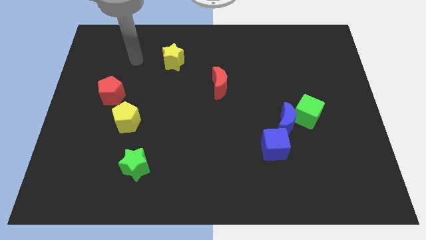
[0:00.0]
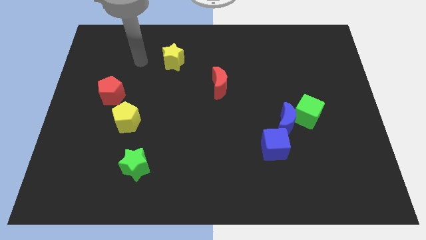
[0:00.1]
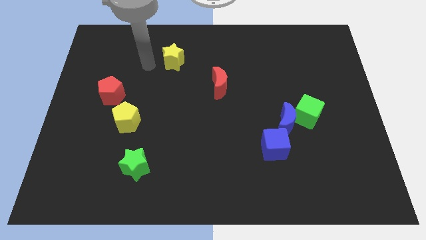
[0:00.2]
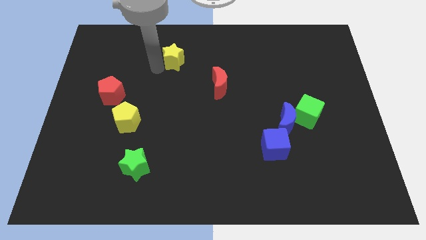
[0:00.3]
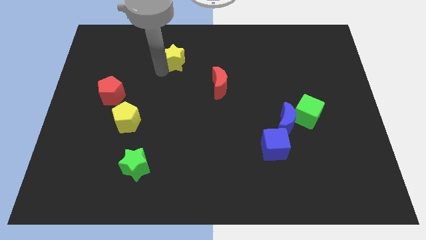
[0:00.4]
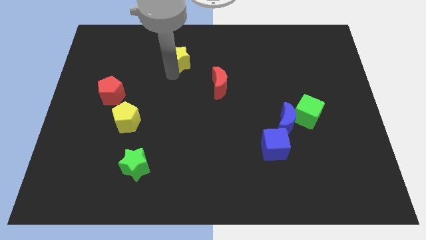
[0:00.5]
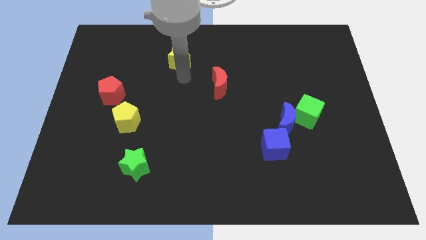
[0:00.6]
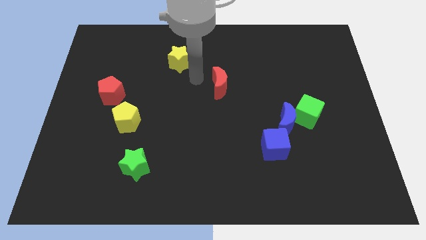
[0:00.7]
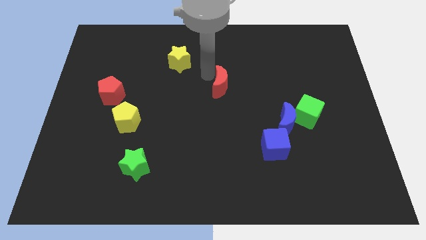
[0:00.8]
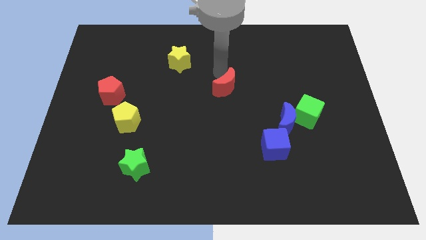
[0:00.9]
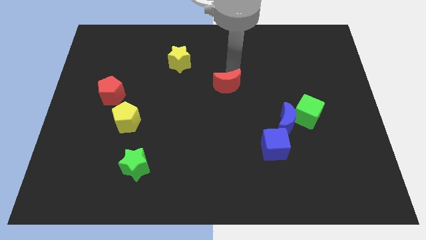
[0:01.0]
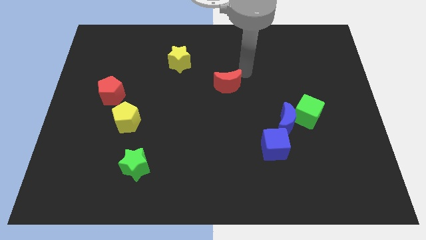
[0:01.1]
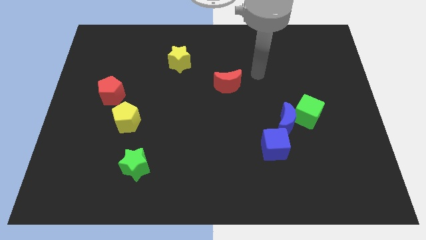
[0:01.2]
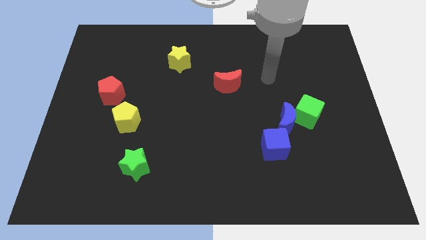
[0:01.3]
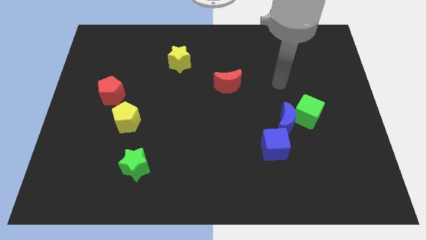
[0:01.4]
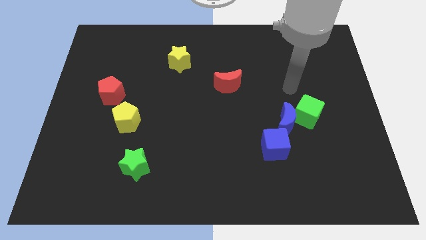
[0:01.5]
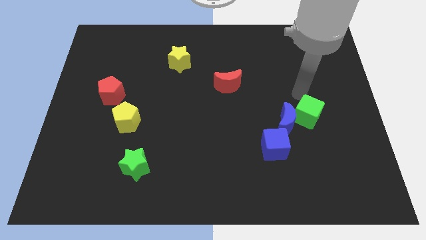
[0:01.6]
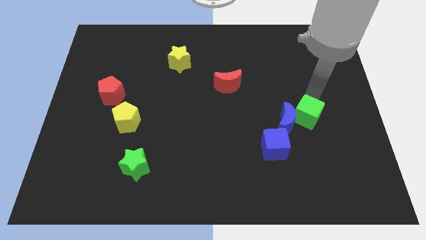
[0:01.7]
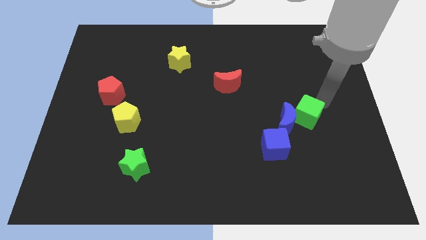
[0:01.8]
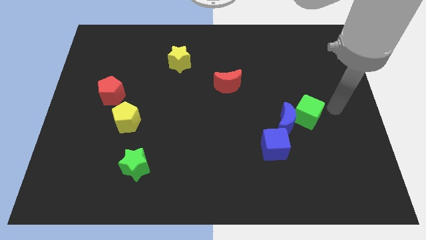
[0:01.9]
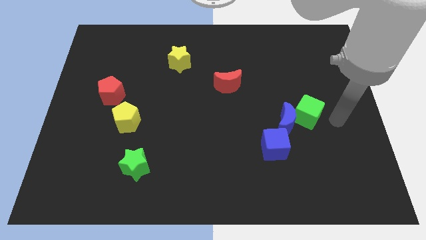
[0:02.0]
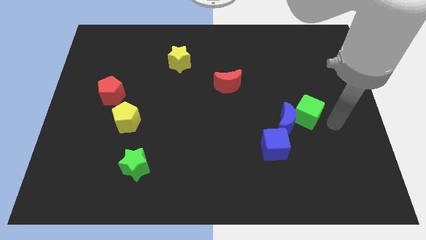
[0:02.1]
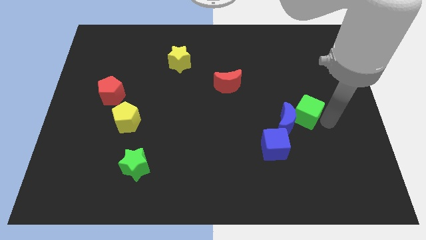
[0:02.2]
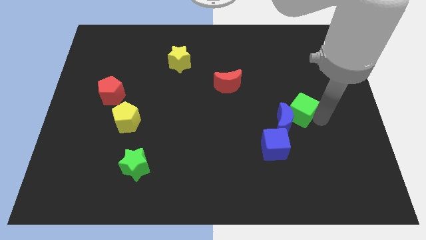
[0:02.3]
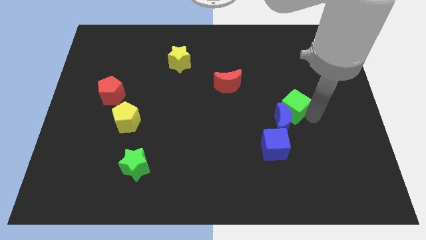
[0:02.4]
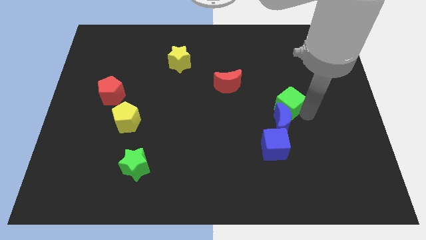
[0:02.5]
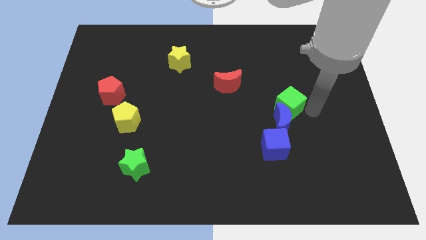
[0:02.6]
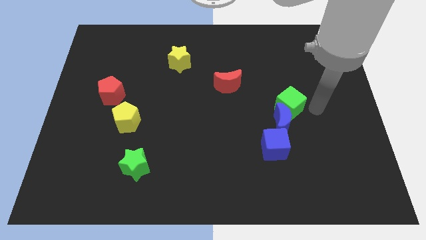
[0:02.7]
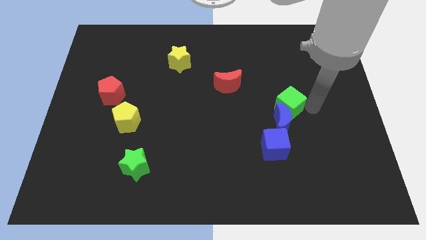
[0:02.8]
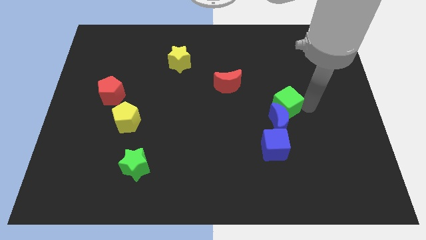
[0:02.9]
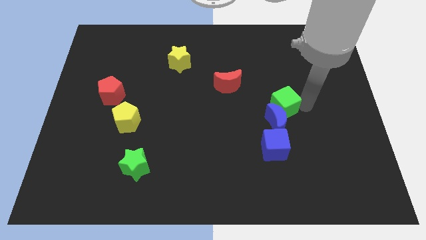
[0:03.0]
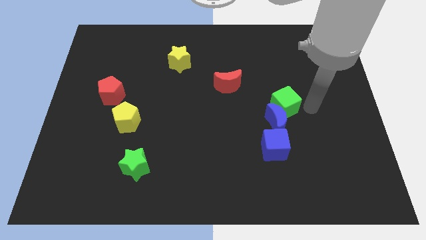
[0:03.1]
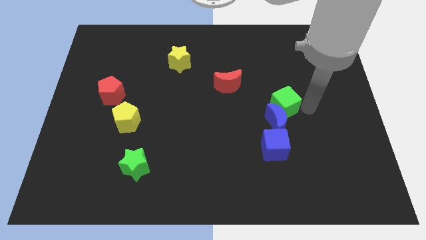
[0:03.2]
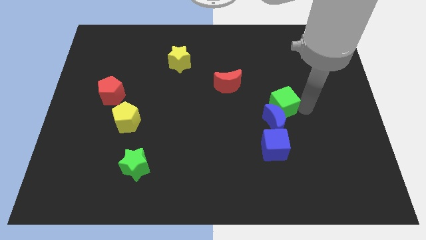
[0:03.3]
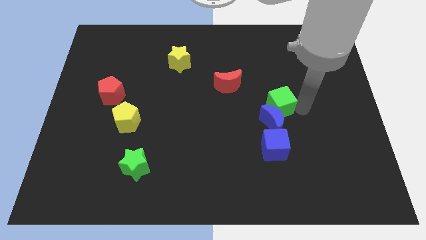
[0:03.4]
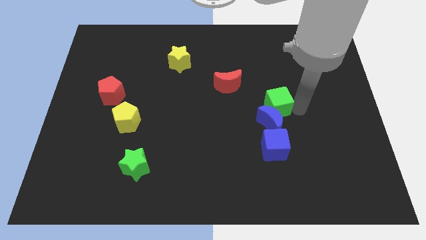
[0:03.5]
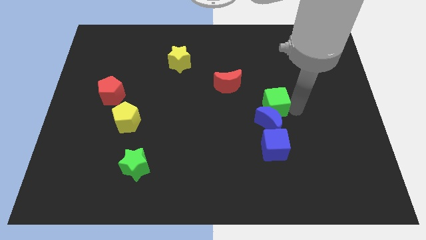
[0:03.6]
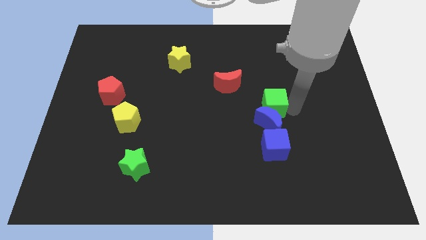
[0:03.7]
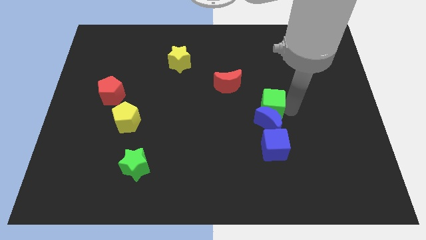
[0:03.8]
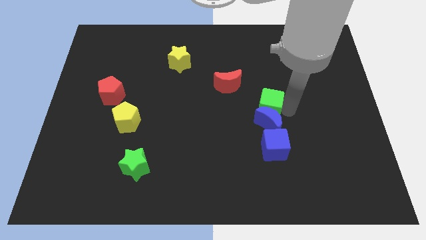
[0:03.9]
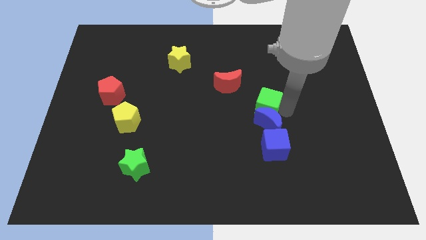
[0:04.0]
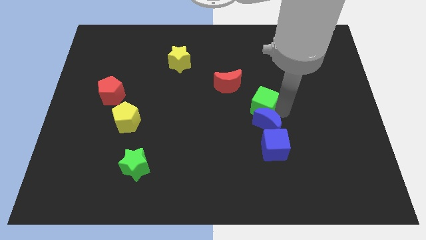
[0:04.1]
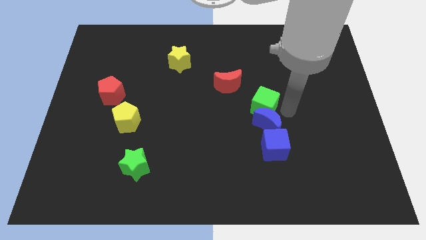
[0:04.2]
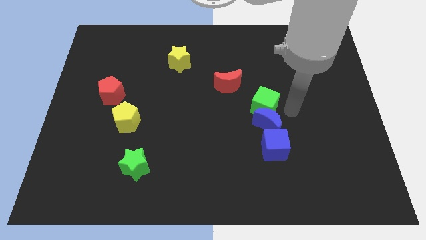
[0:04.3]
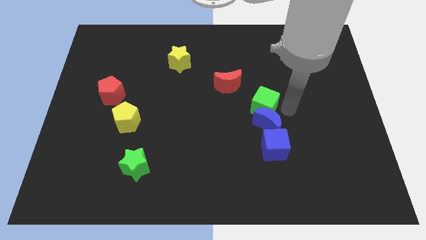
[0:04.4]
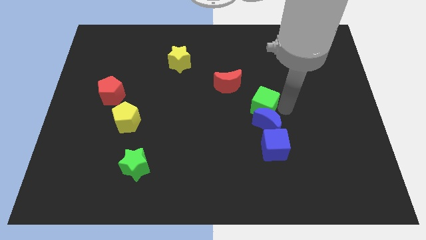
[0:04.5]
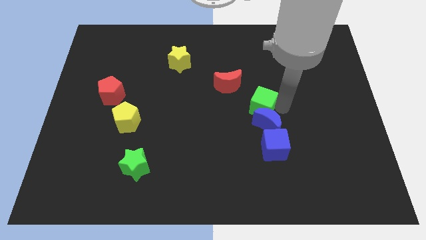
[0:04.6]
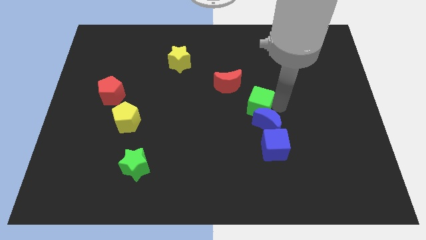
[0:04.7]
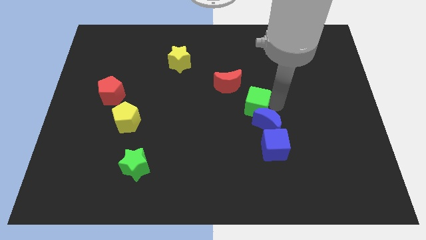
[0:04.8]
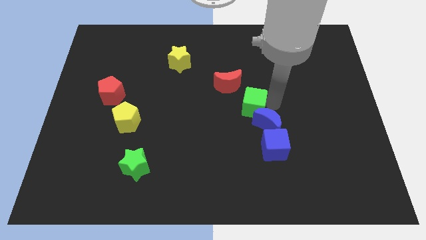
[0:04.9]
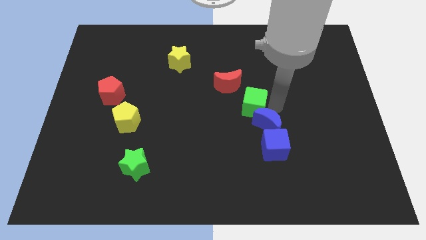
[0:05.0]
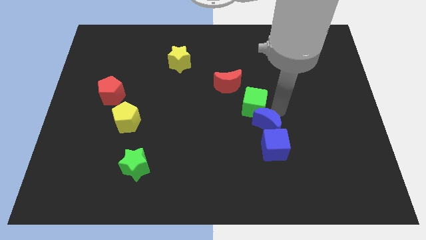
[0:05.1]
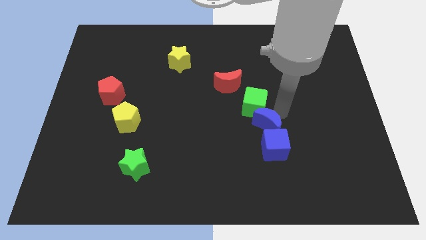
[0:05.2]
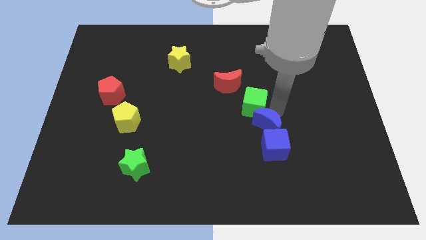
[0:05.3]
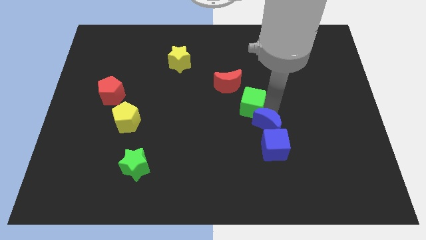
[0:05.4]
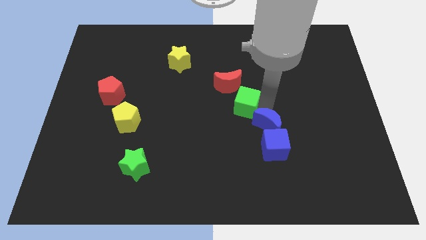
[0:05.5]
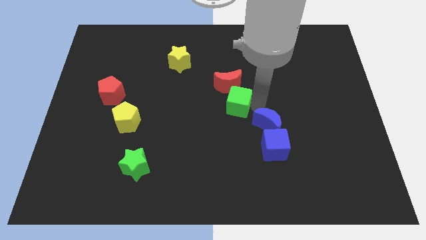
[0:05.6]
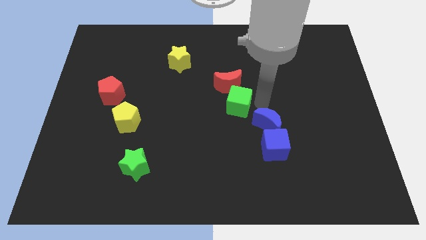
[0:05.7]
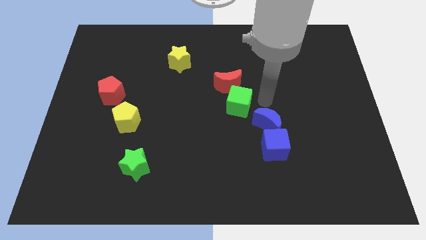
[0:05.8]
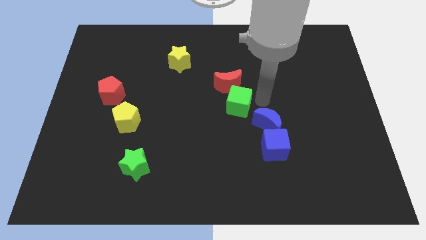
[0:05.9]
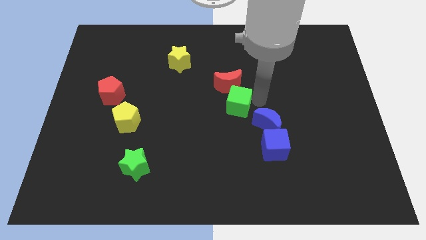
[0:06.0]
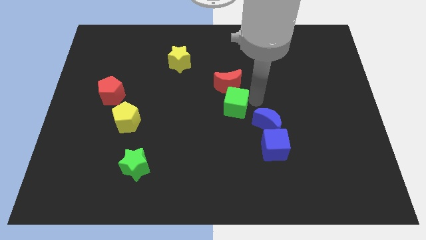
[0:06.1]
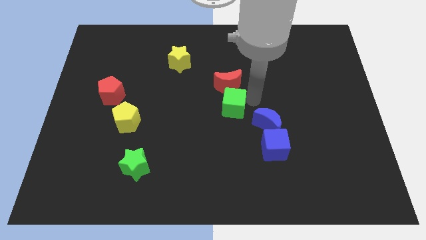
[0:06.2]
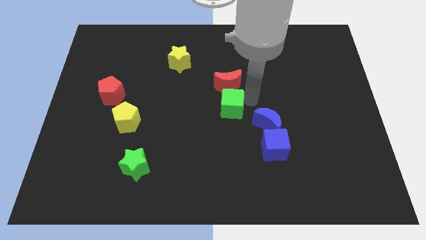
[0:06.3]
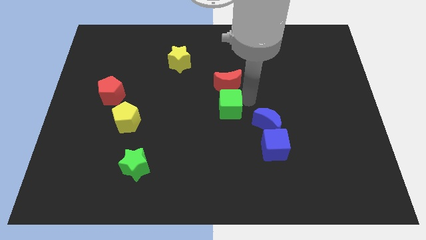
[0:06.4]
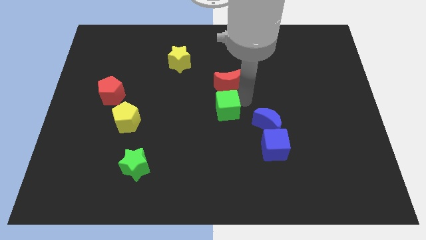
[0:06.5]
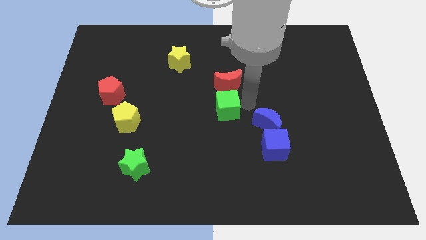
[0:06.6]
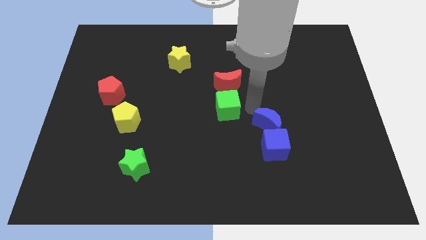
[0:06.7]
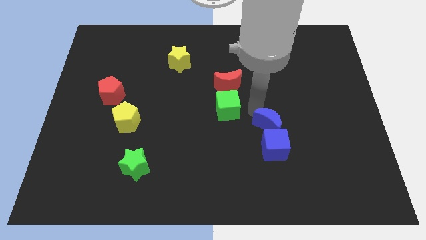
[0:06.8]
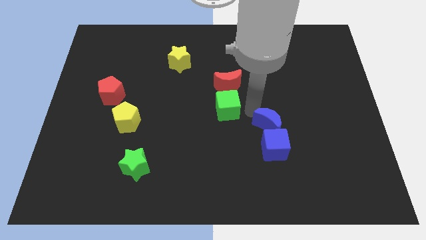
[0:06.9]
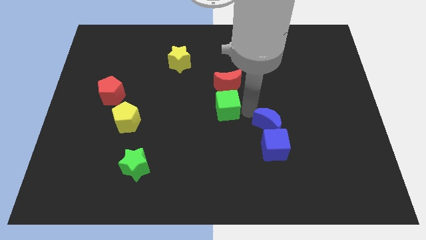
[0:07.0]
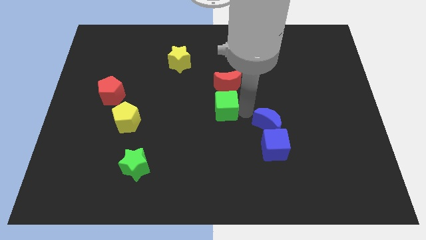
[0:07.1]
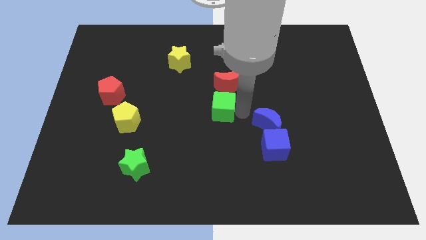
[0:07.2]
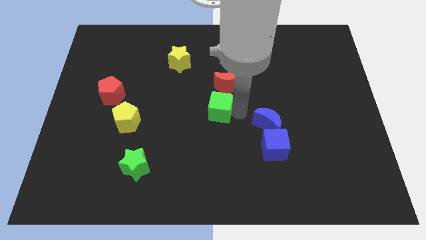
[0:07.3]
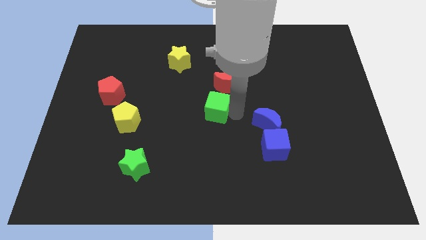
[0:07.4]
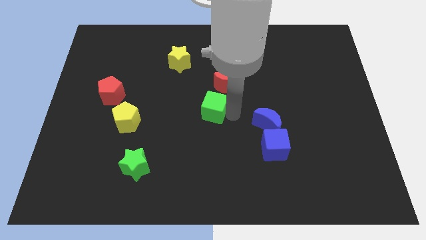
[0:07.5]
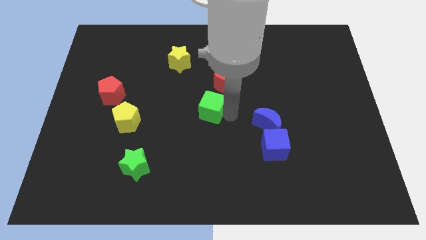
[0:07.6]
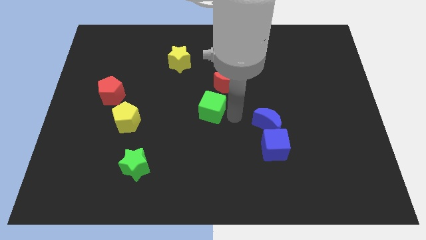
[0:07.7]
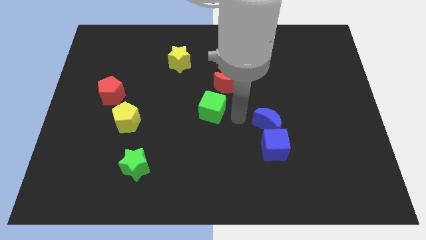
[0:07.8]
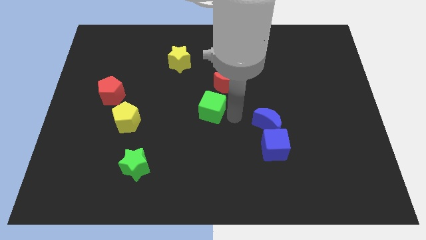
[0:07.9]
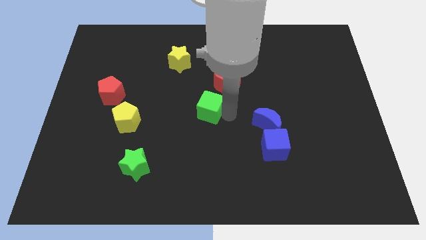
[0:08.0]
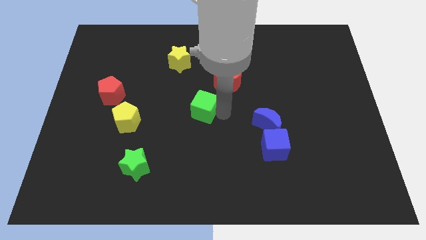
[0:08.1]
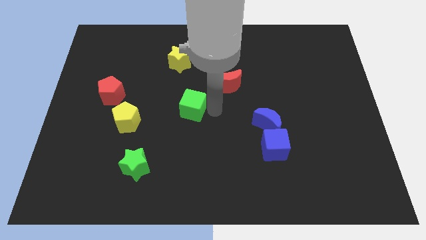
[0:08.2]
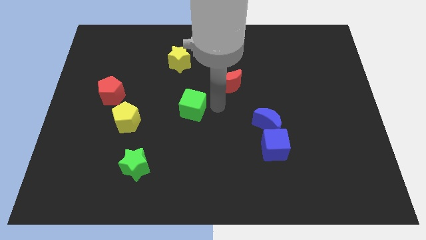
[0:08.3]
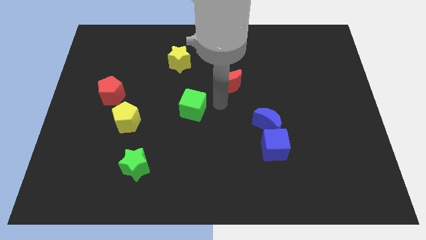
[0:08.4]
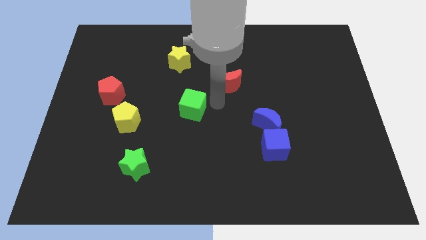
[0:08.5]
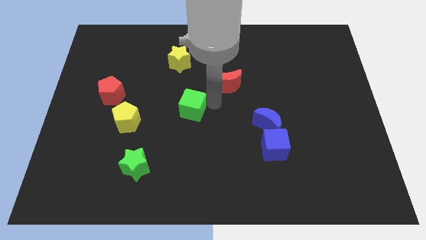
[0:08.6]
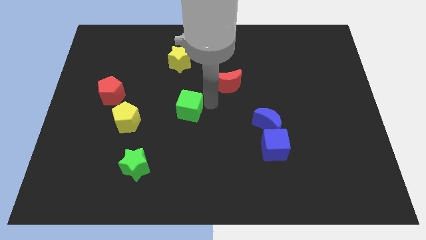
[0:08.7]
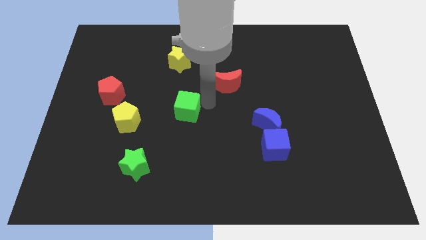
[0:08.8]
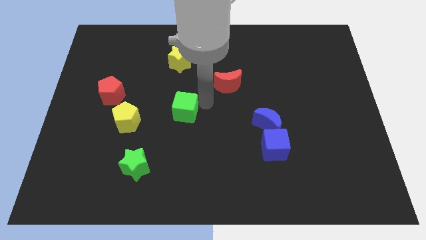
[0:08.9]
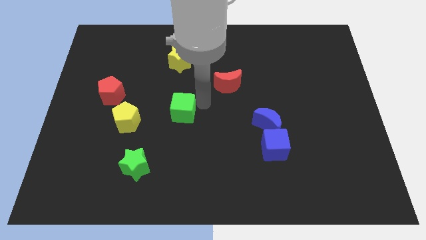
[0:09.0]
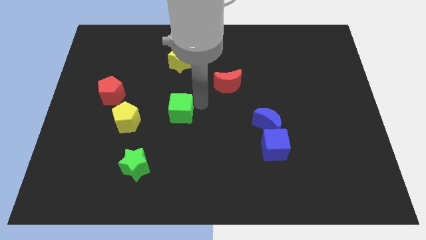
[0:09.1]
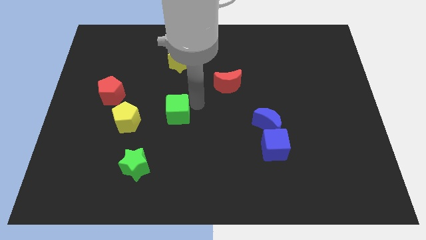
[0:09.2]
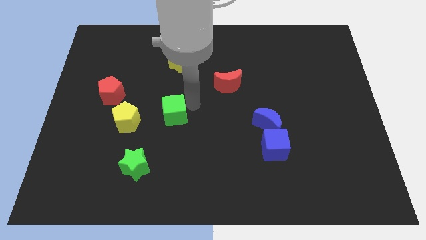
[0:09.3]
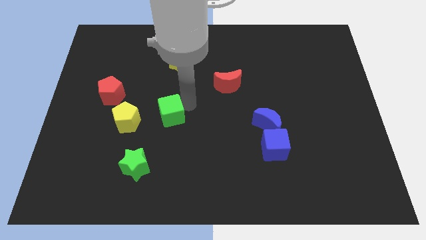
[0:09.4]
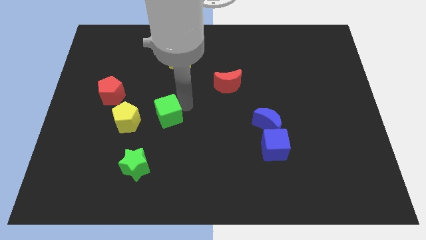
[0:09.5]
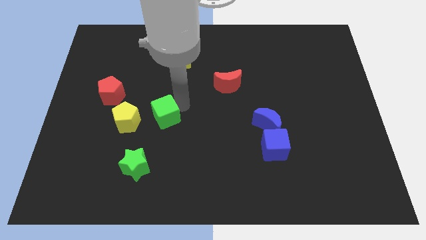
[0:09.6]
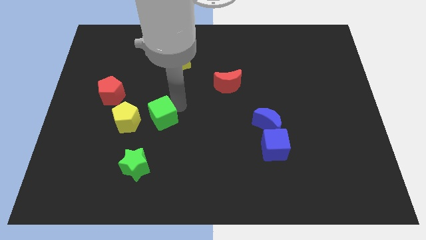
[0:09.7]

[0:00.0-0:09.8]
slide the green cube to the top of the green star
